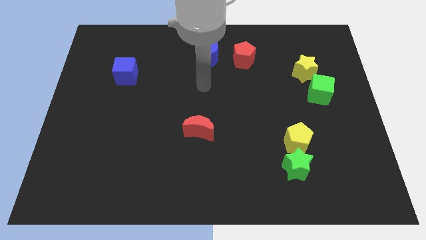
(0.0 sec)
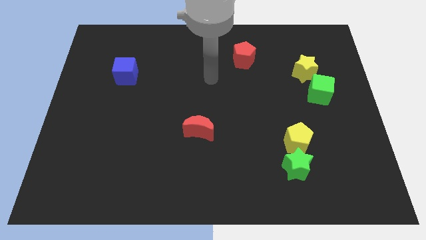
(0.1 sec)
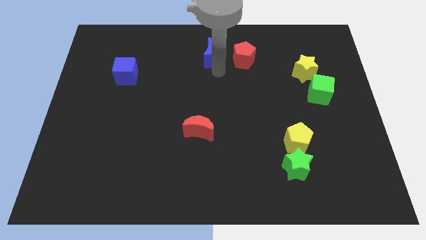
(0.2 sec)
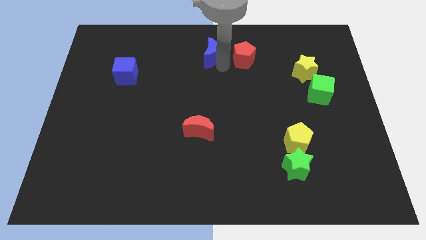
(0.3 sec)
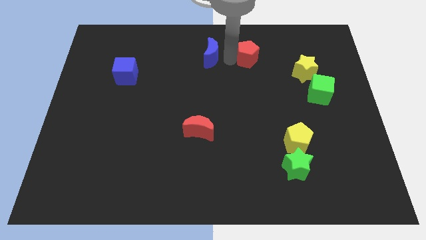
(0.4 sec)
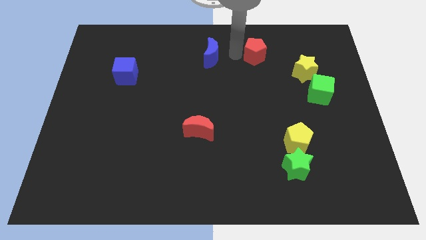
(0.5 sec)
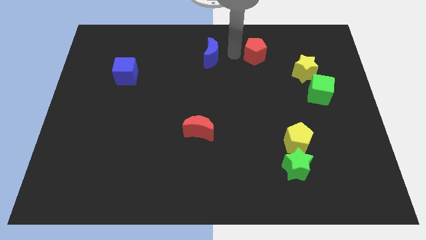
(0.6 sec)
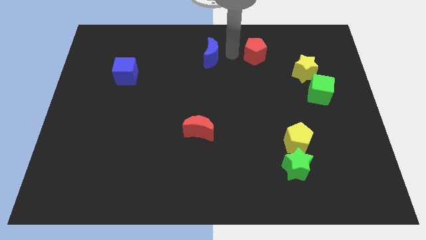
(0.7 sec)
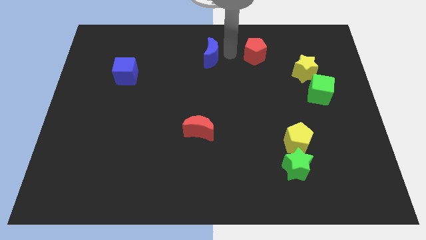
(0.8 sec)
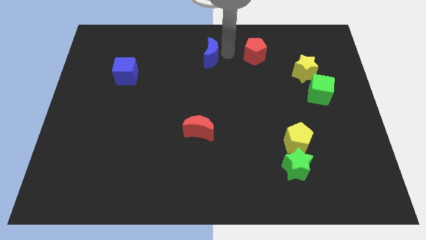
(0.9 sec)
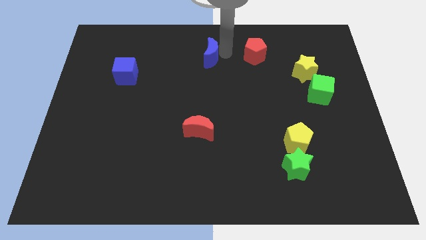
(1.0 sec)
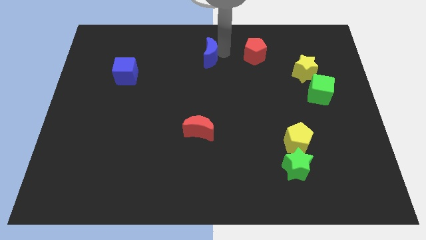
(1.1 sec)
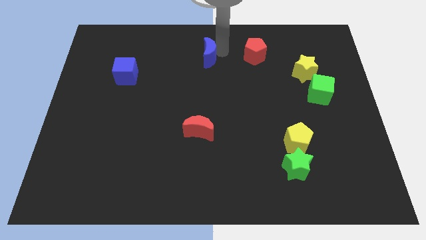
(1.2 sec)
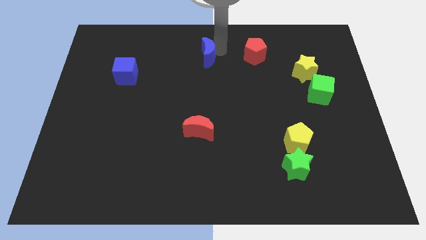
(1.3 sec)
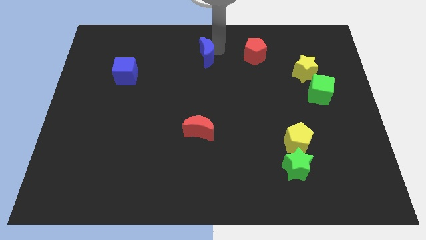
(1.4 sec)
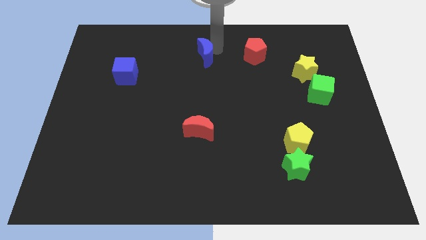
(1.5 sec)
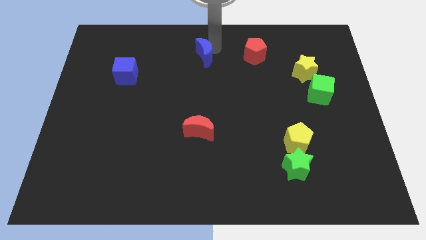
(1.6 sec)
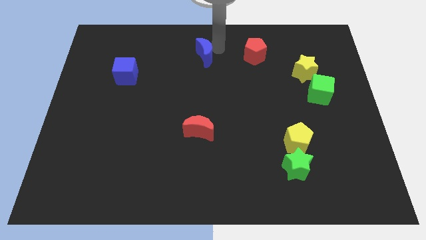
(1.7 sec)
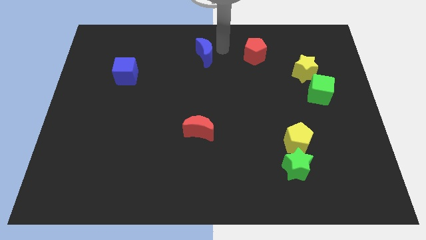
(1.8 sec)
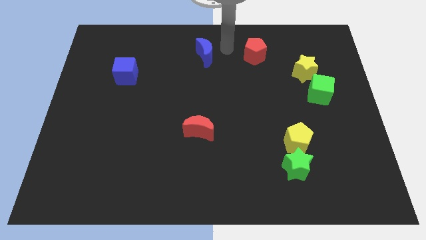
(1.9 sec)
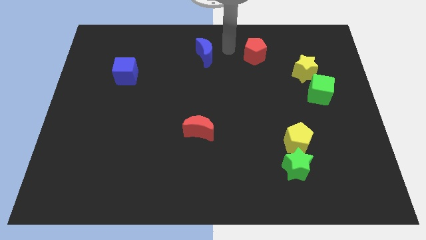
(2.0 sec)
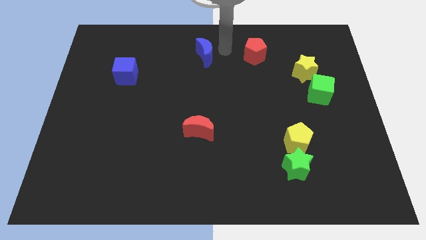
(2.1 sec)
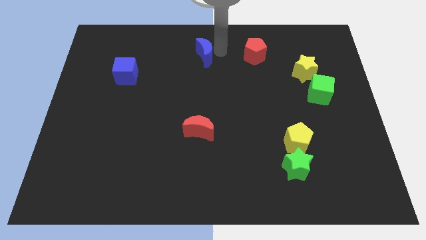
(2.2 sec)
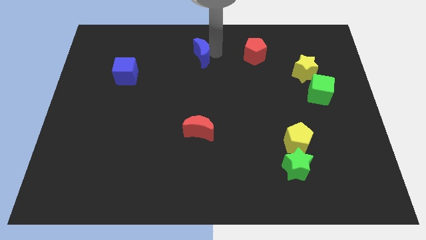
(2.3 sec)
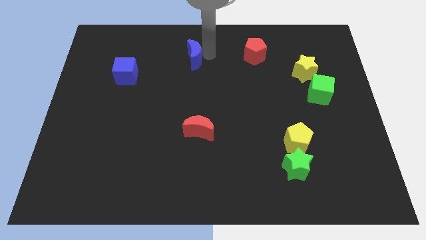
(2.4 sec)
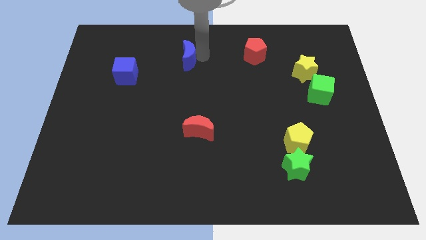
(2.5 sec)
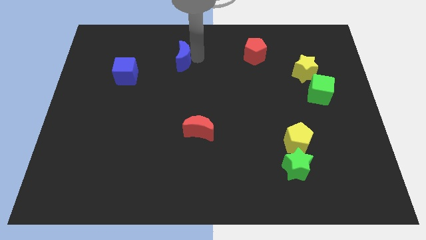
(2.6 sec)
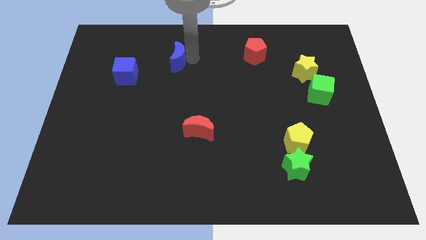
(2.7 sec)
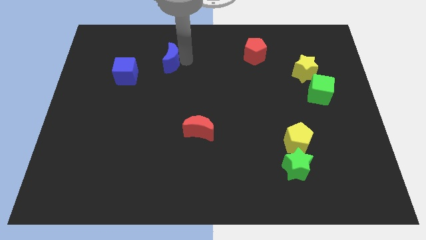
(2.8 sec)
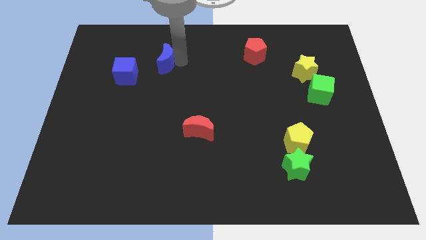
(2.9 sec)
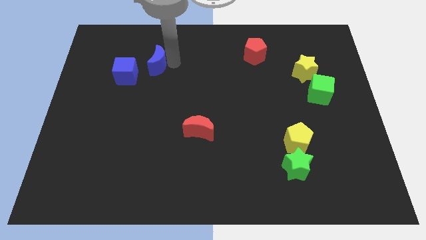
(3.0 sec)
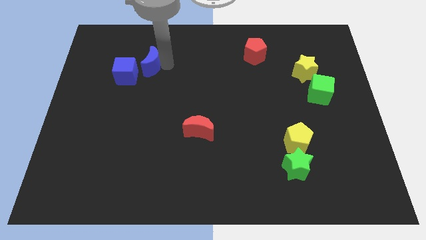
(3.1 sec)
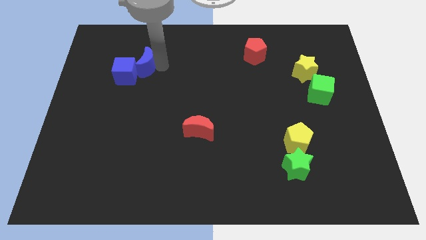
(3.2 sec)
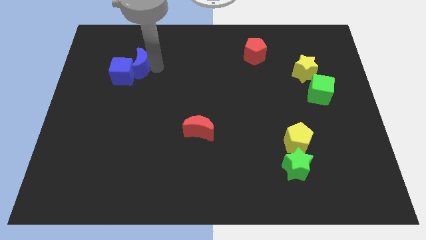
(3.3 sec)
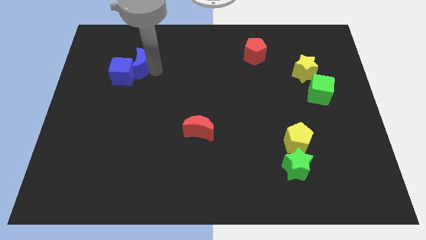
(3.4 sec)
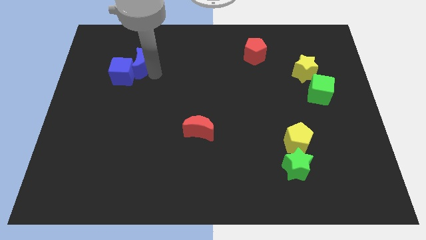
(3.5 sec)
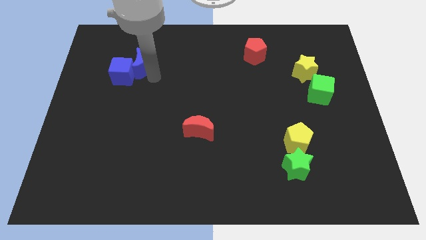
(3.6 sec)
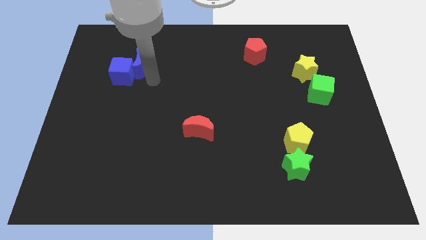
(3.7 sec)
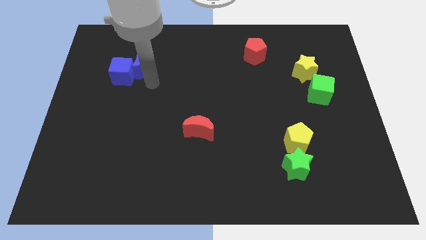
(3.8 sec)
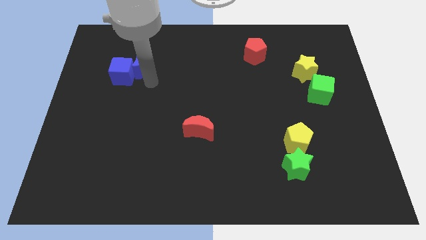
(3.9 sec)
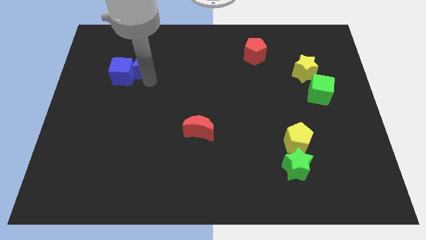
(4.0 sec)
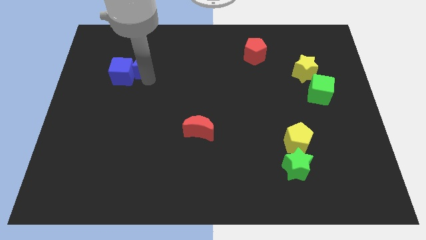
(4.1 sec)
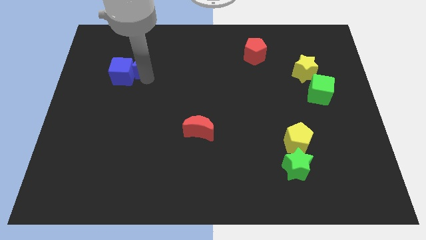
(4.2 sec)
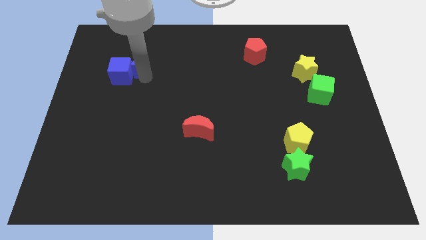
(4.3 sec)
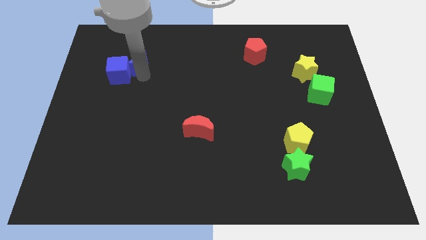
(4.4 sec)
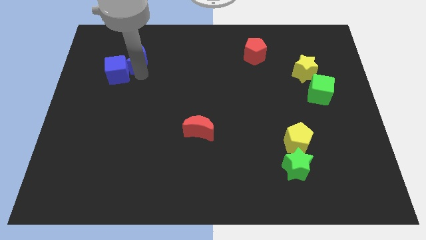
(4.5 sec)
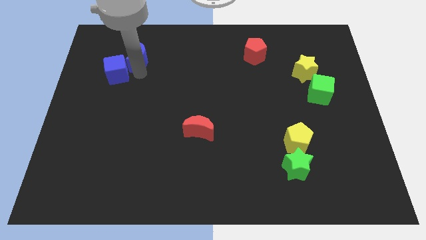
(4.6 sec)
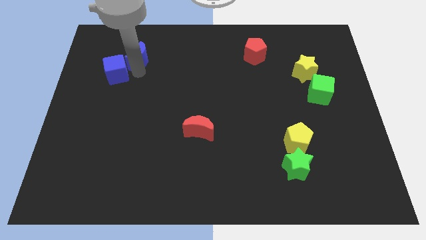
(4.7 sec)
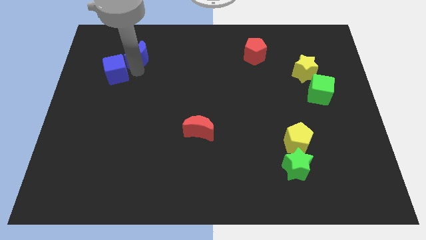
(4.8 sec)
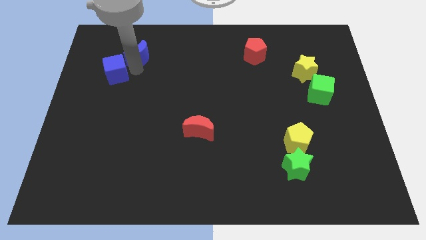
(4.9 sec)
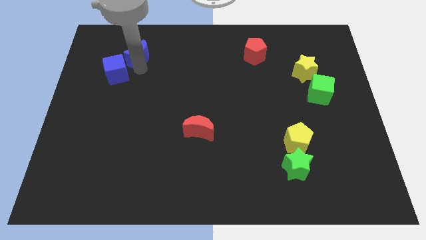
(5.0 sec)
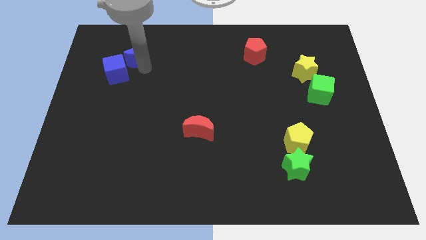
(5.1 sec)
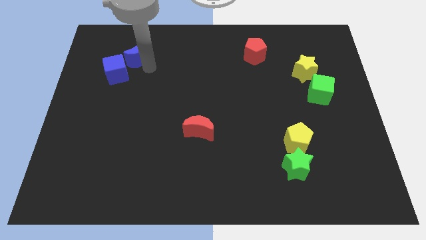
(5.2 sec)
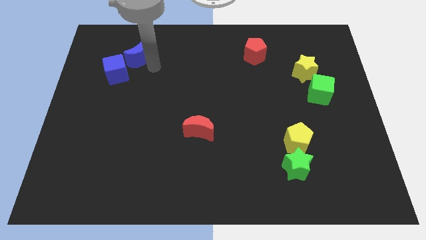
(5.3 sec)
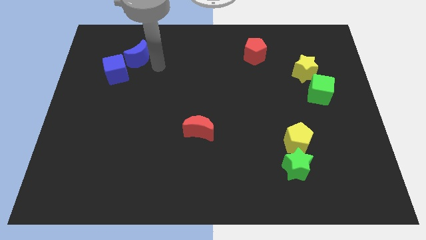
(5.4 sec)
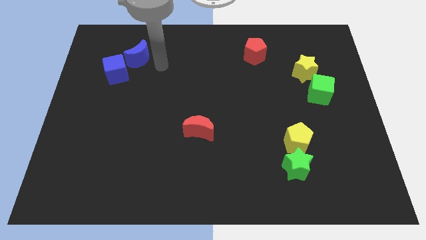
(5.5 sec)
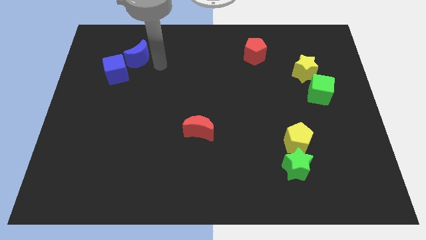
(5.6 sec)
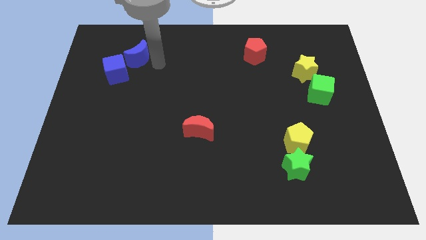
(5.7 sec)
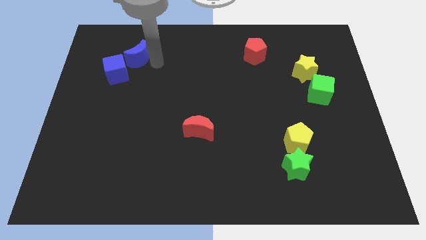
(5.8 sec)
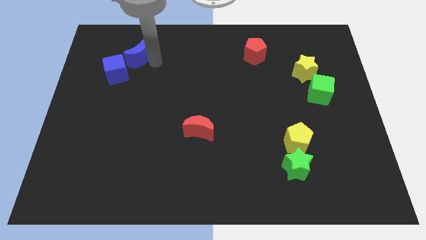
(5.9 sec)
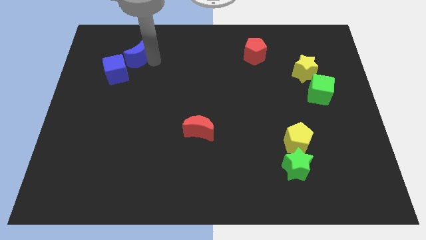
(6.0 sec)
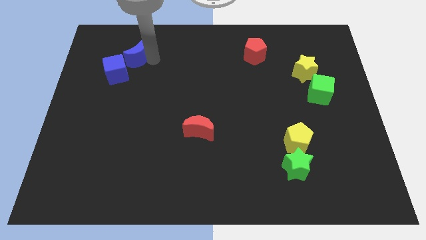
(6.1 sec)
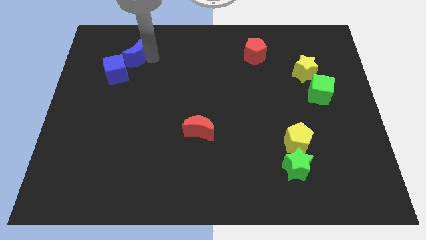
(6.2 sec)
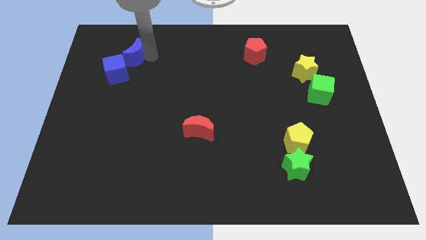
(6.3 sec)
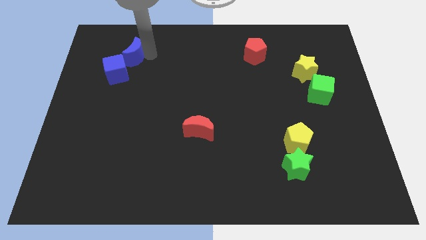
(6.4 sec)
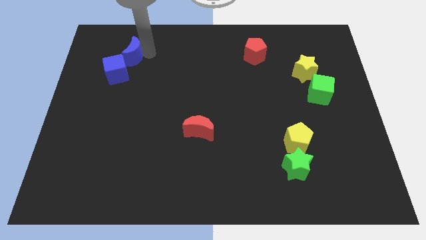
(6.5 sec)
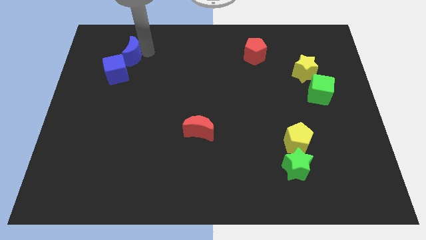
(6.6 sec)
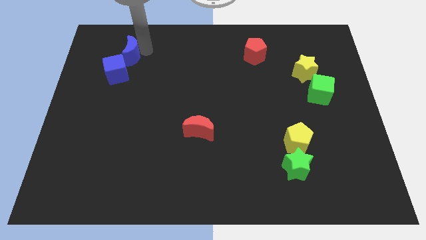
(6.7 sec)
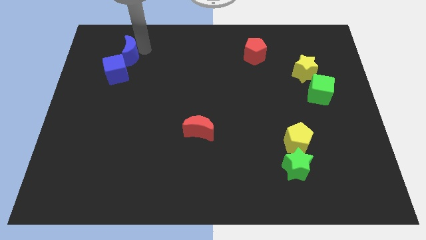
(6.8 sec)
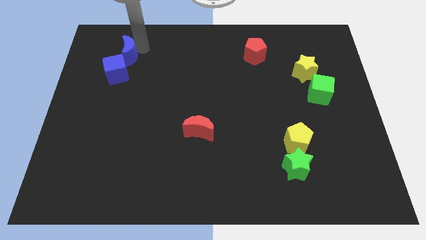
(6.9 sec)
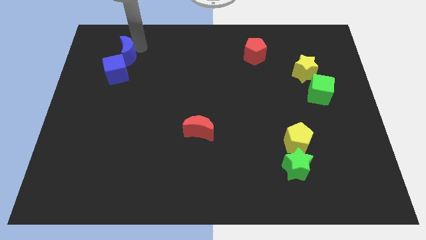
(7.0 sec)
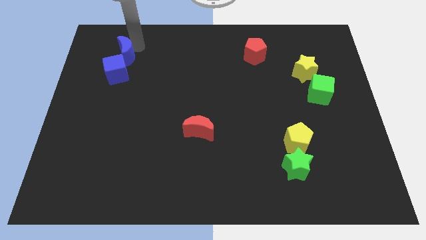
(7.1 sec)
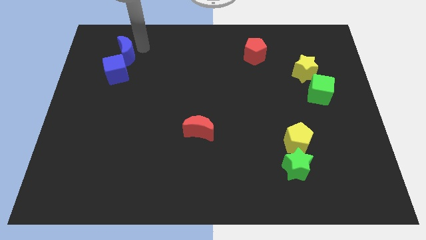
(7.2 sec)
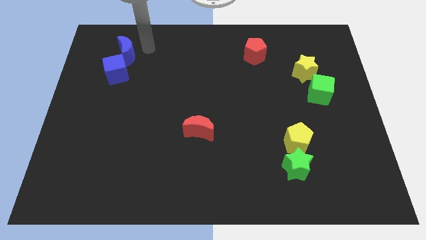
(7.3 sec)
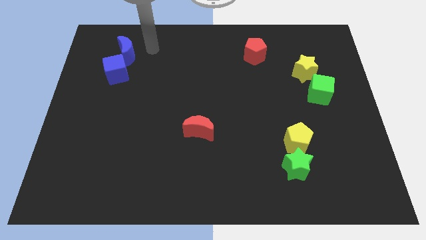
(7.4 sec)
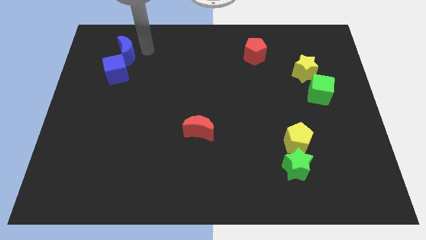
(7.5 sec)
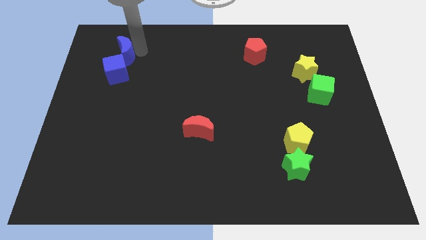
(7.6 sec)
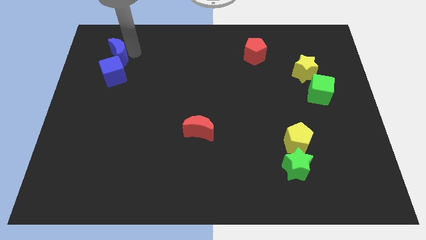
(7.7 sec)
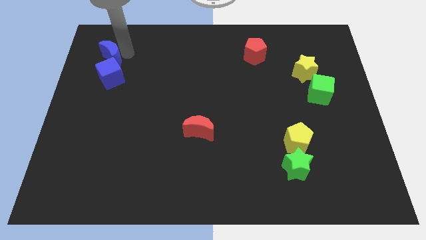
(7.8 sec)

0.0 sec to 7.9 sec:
slide the blue moon diagonally up and to the left of the blue cube
